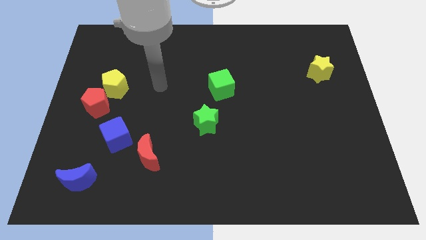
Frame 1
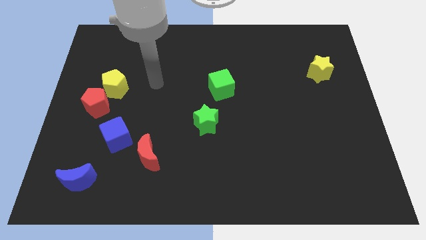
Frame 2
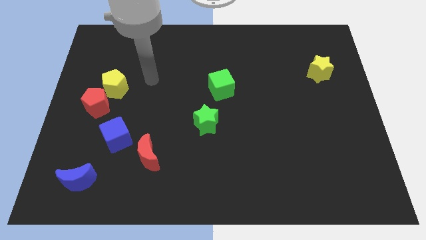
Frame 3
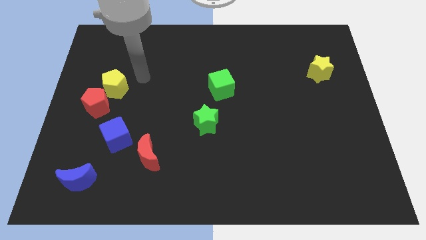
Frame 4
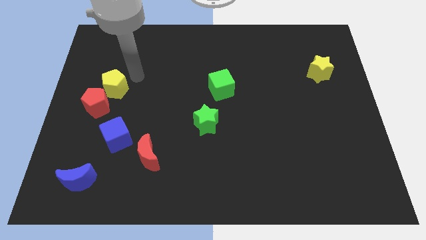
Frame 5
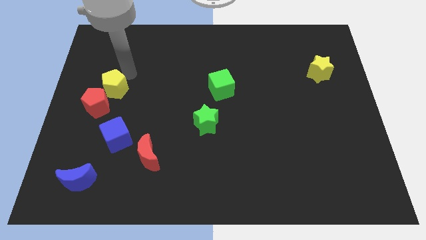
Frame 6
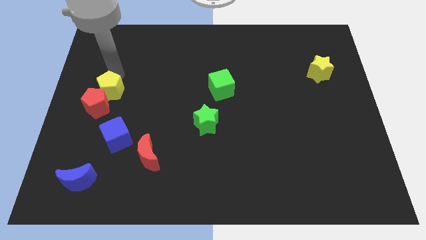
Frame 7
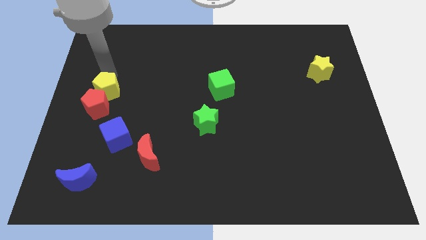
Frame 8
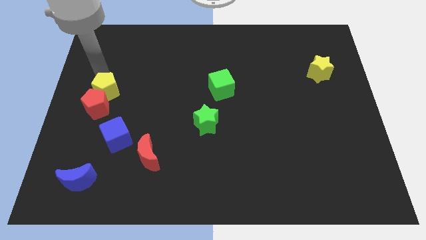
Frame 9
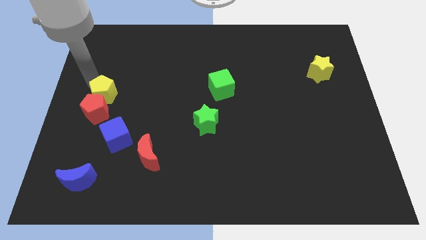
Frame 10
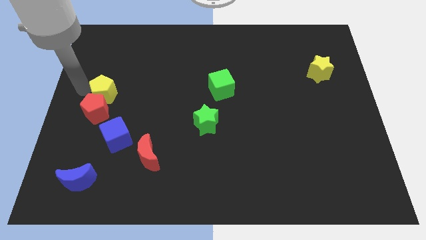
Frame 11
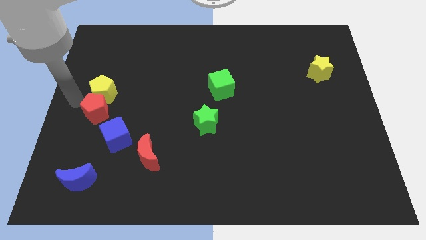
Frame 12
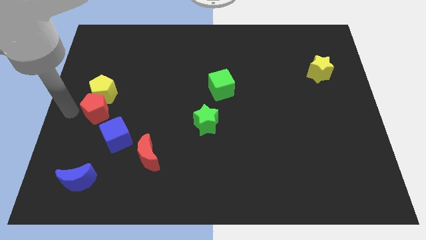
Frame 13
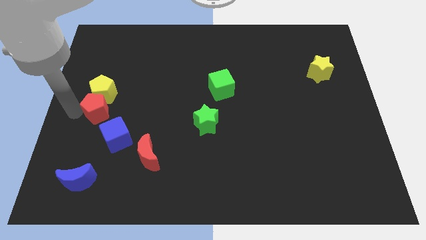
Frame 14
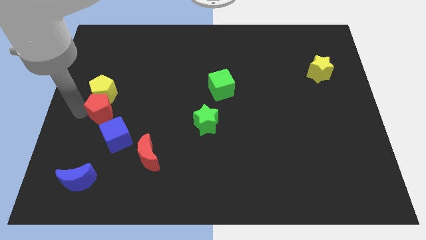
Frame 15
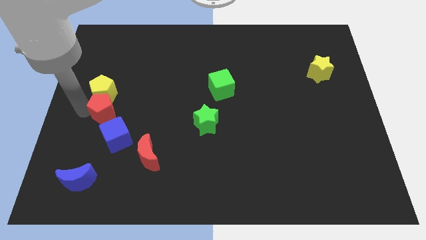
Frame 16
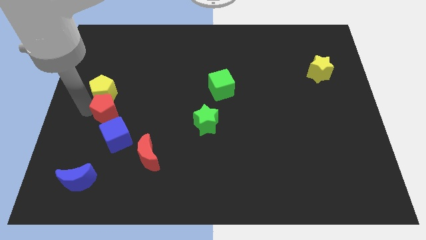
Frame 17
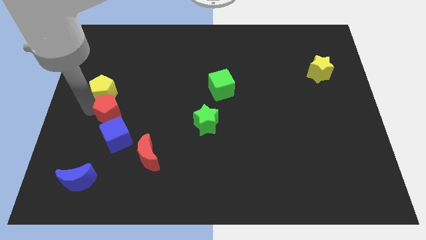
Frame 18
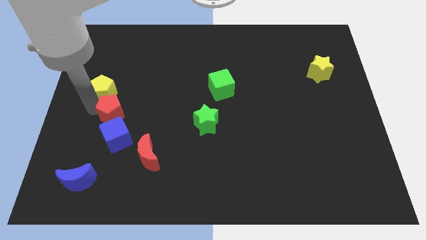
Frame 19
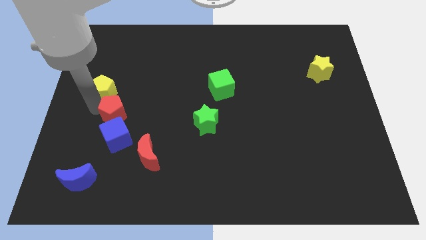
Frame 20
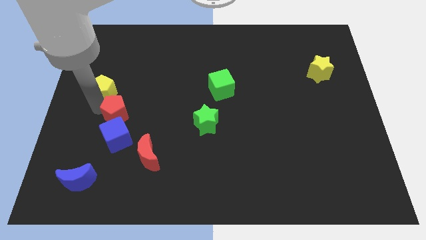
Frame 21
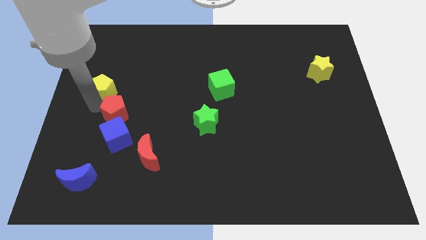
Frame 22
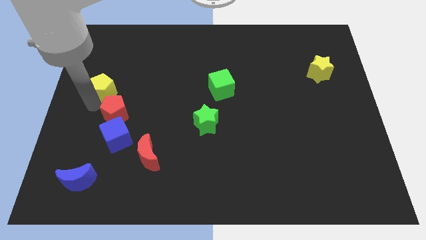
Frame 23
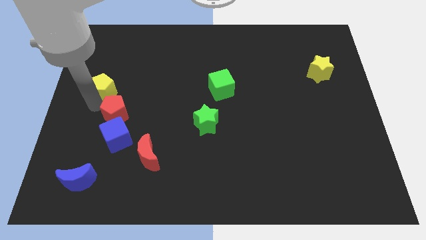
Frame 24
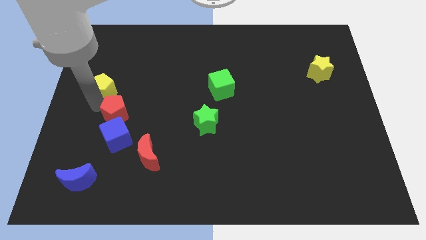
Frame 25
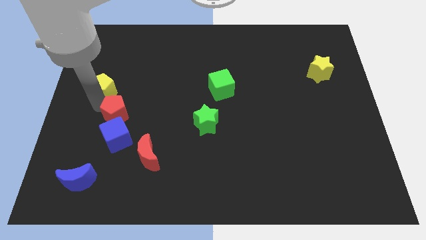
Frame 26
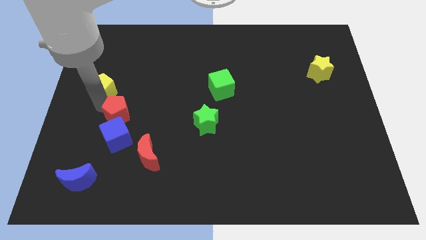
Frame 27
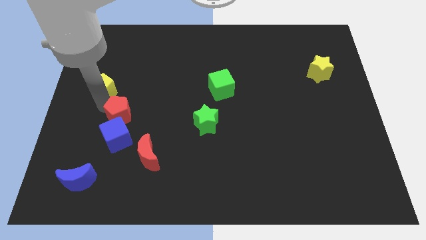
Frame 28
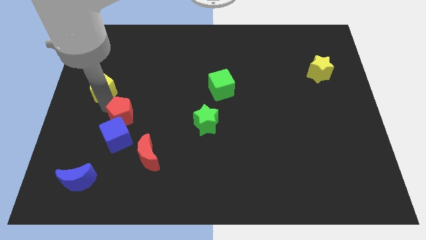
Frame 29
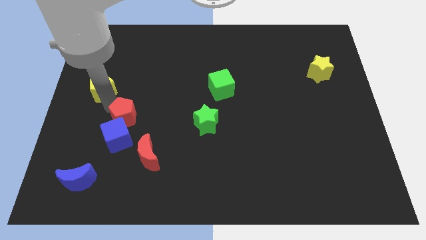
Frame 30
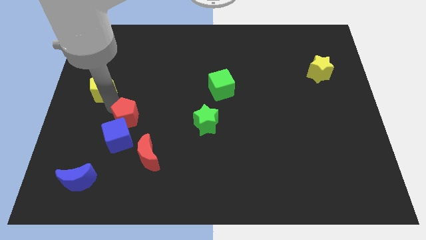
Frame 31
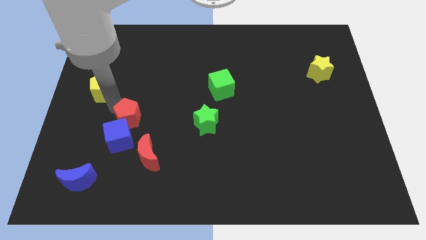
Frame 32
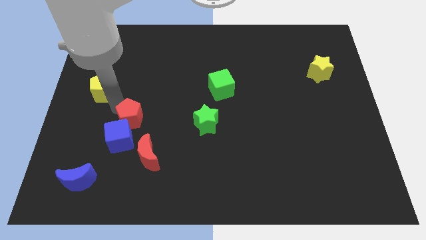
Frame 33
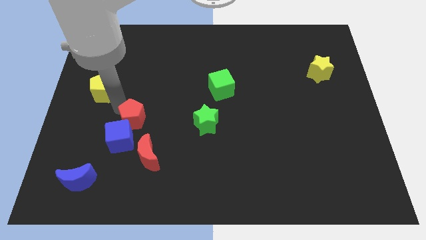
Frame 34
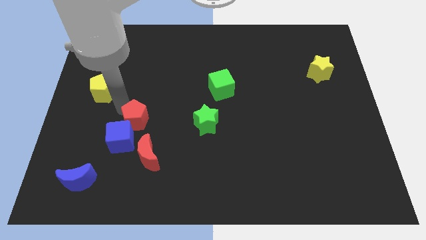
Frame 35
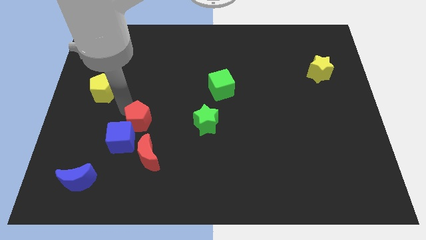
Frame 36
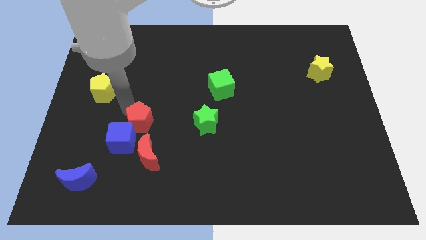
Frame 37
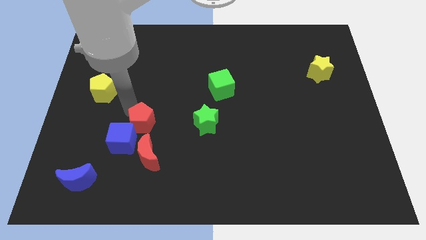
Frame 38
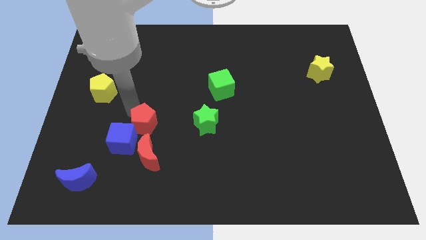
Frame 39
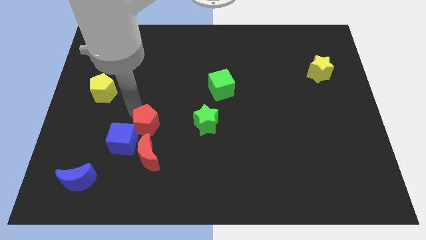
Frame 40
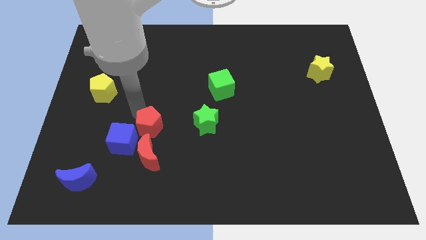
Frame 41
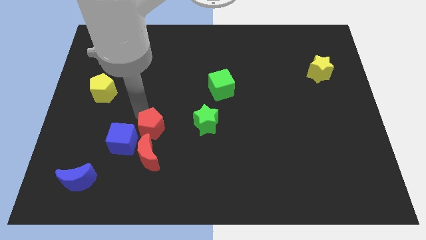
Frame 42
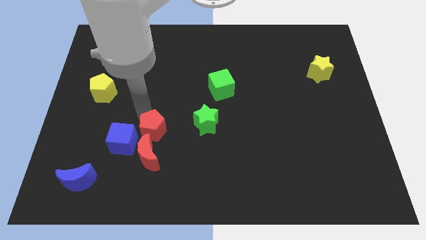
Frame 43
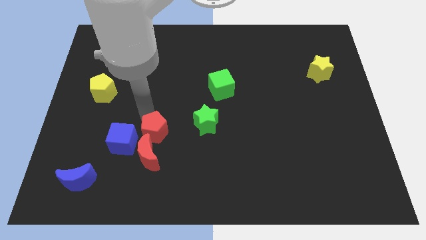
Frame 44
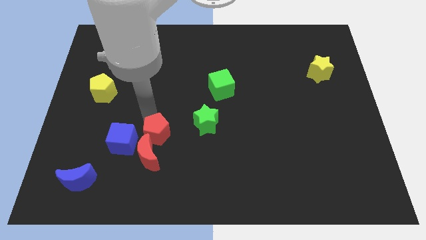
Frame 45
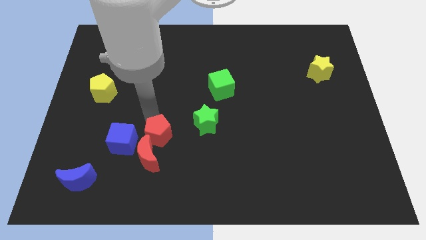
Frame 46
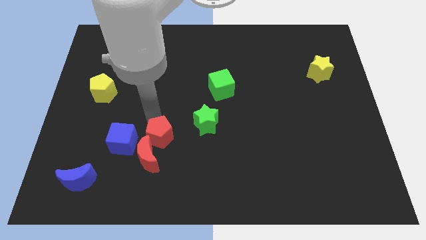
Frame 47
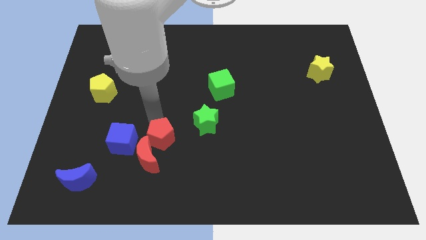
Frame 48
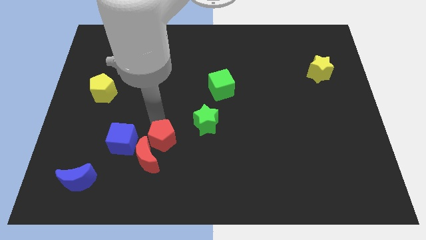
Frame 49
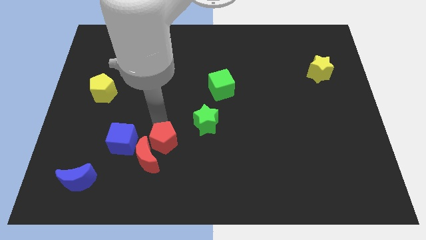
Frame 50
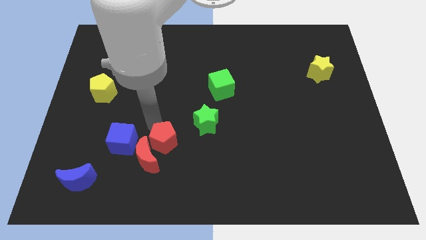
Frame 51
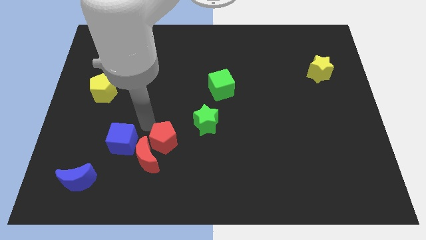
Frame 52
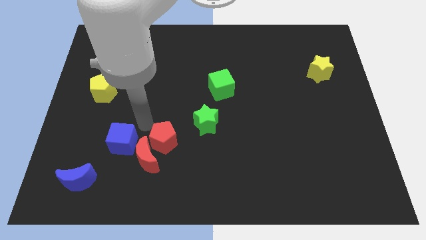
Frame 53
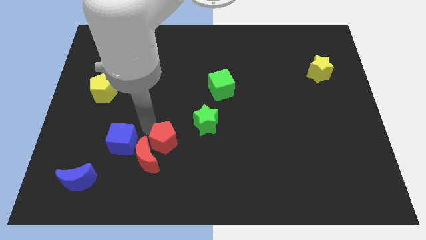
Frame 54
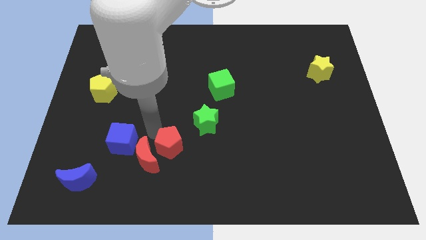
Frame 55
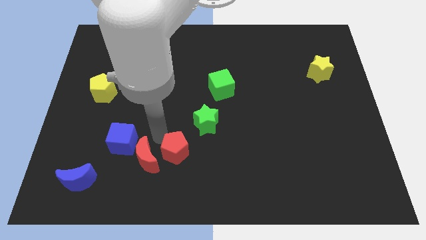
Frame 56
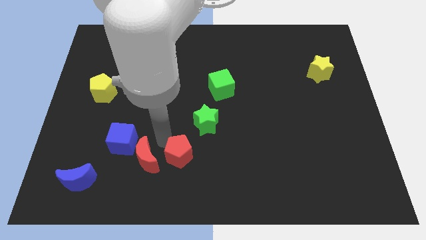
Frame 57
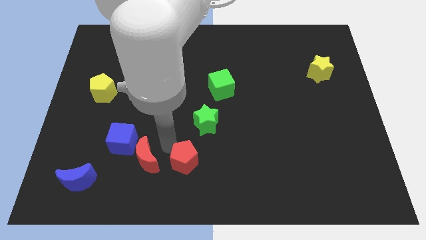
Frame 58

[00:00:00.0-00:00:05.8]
move the red pentagon below the green star

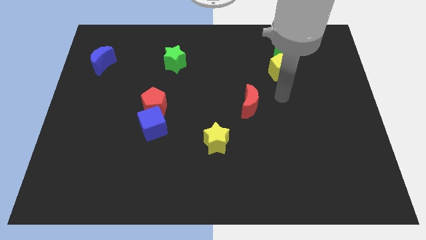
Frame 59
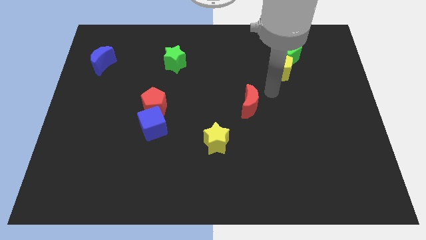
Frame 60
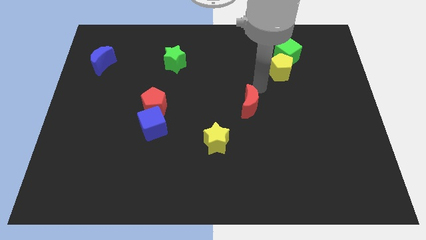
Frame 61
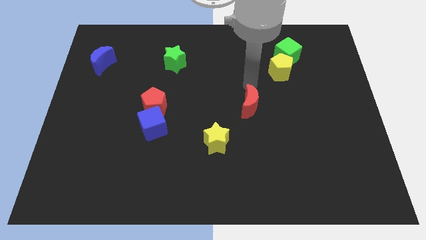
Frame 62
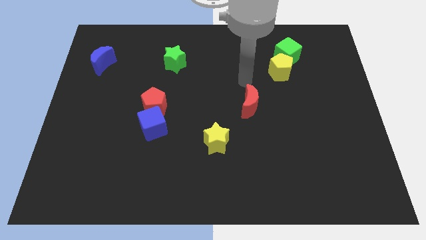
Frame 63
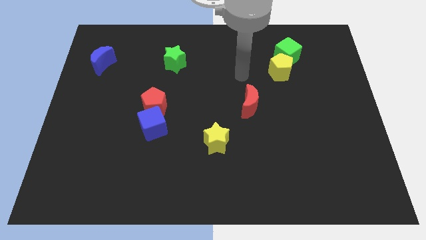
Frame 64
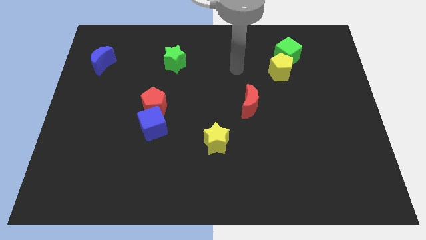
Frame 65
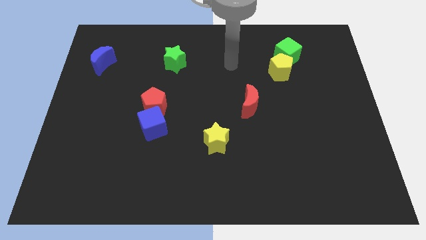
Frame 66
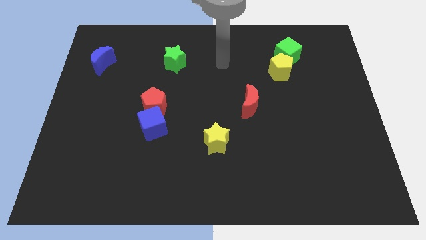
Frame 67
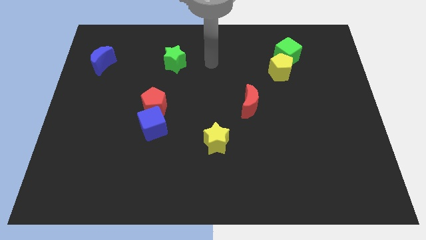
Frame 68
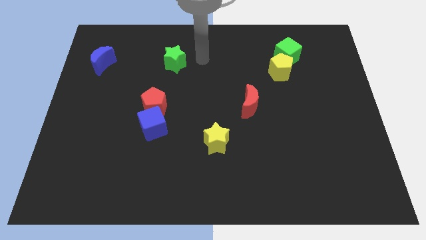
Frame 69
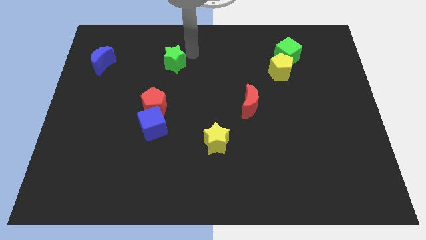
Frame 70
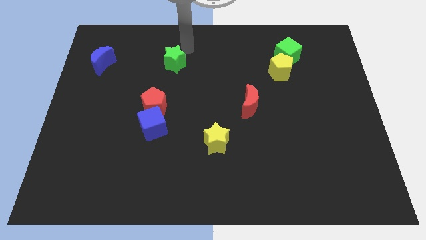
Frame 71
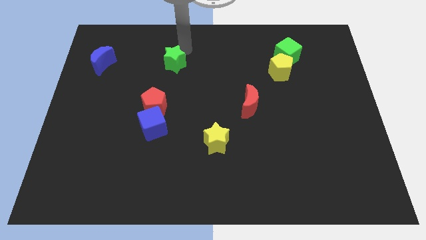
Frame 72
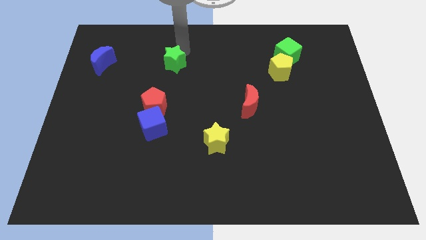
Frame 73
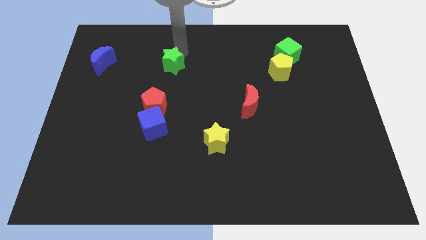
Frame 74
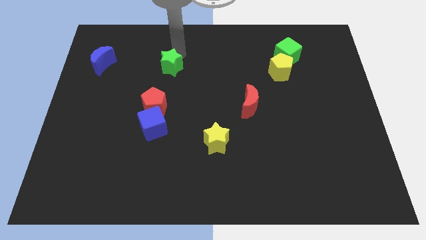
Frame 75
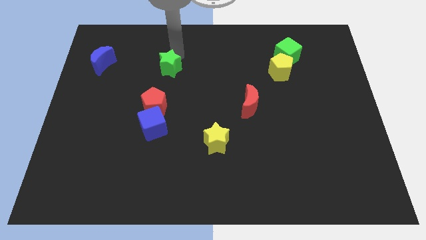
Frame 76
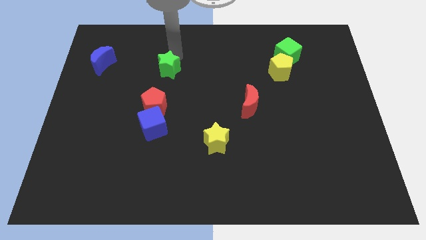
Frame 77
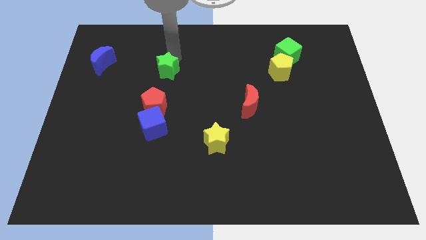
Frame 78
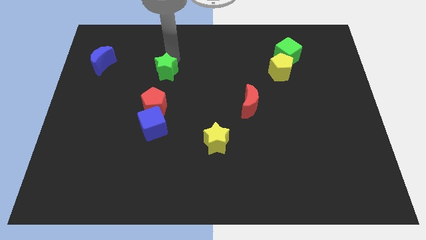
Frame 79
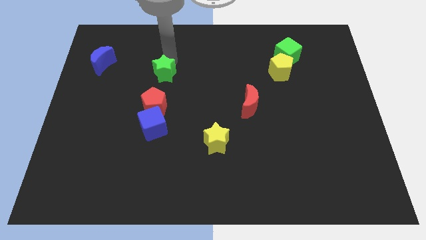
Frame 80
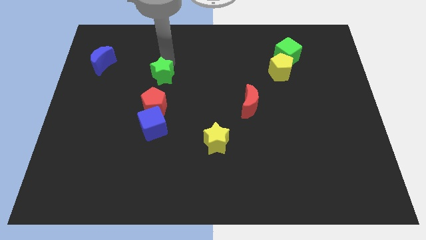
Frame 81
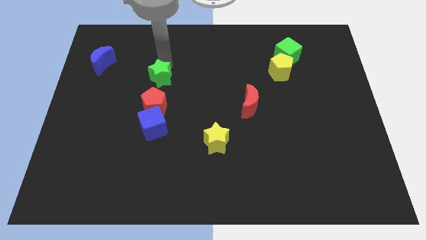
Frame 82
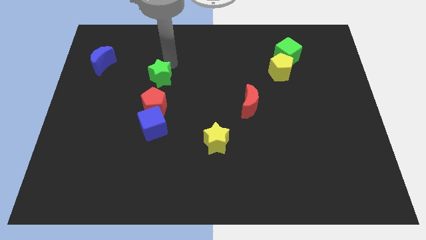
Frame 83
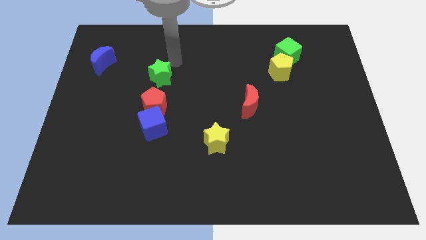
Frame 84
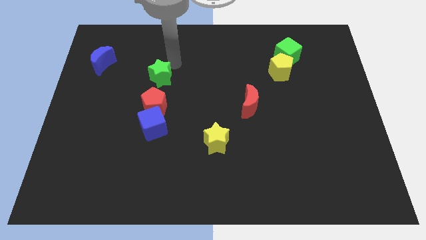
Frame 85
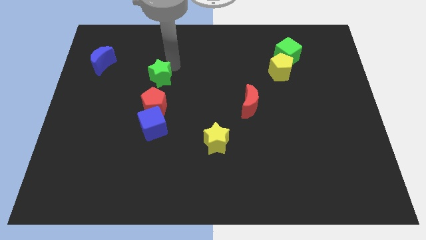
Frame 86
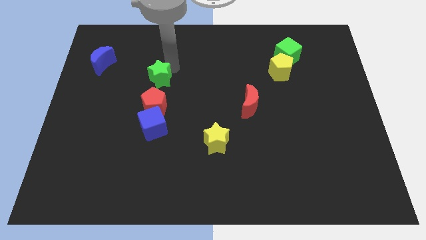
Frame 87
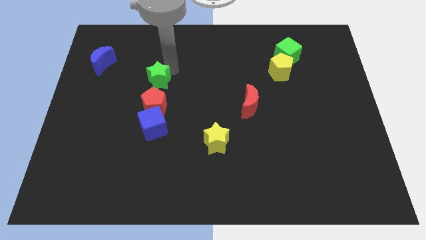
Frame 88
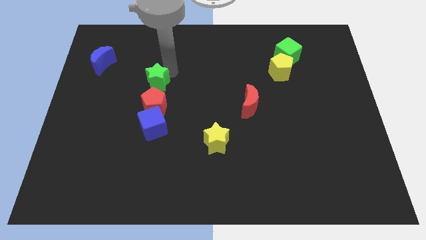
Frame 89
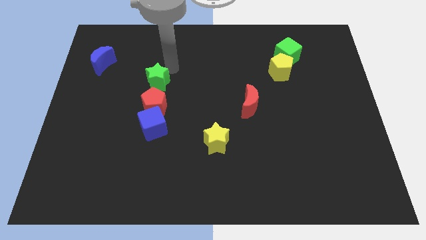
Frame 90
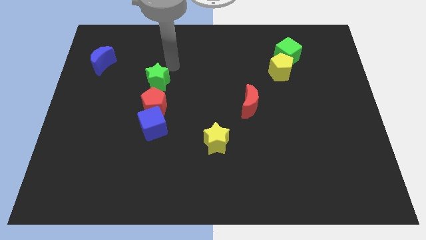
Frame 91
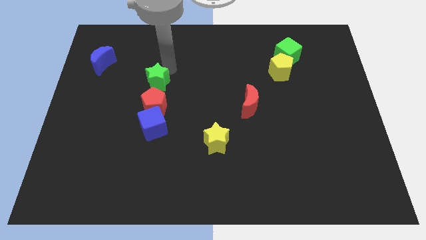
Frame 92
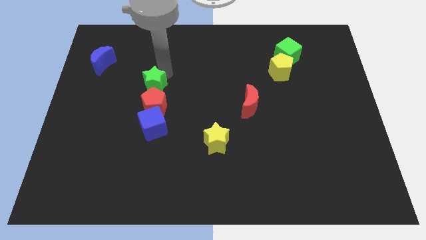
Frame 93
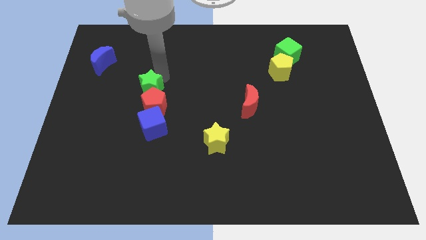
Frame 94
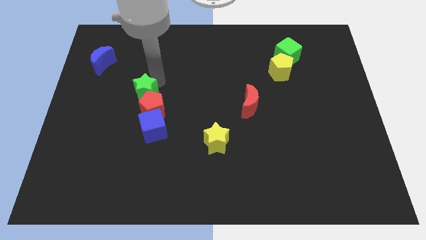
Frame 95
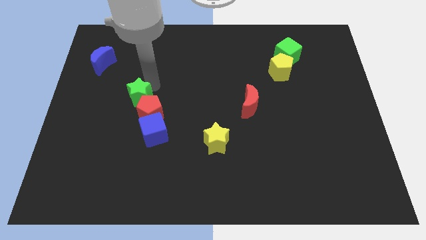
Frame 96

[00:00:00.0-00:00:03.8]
slide the green star to the top left of the blue cube
